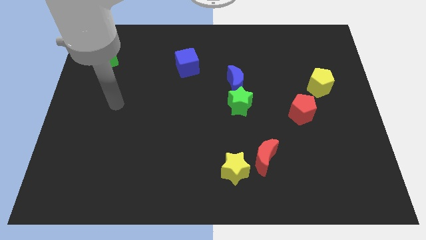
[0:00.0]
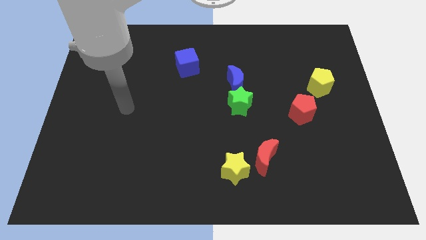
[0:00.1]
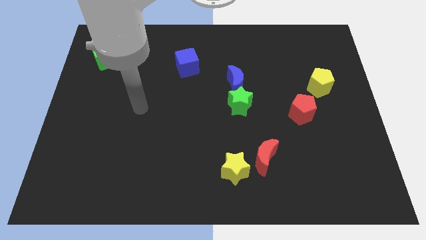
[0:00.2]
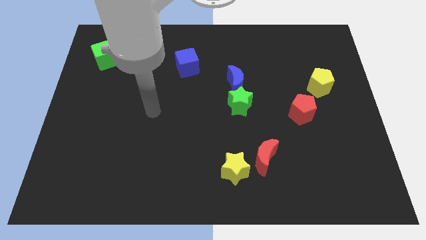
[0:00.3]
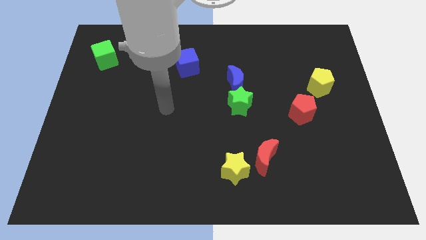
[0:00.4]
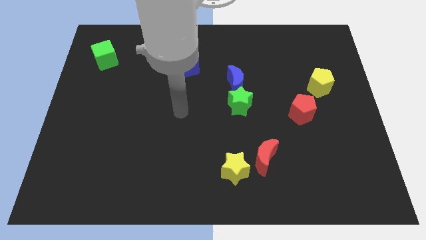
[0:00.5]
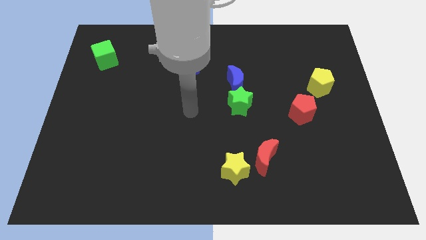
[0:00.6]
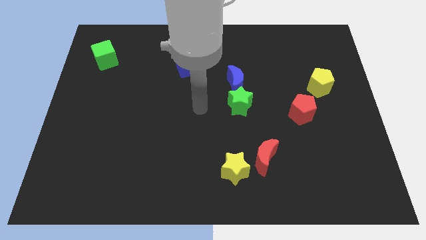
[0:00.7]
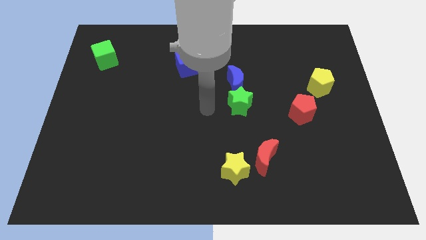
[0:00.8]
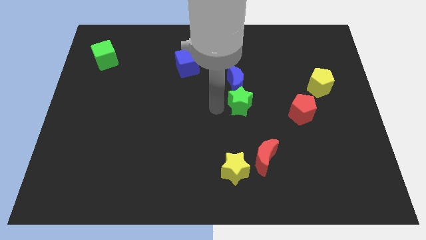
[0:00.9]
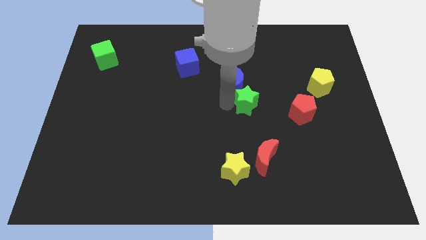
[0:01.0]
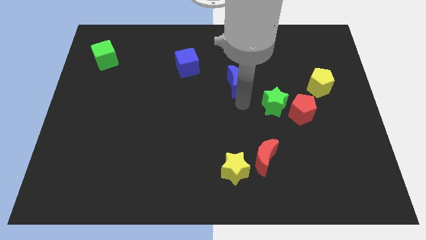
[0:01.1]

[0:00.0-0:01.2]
pull the blue moon apart from the green star

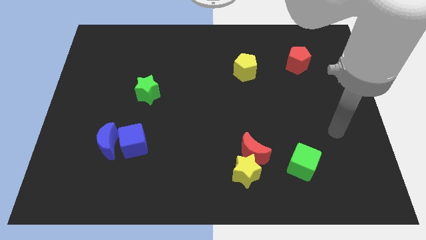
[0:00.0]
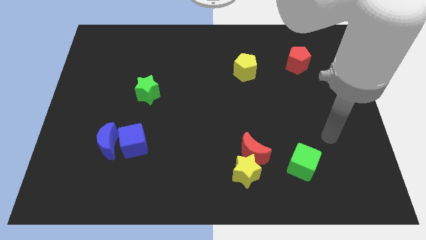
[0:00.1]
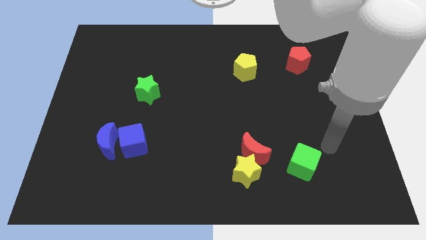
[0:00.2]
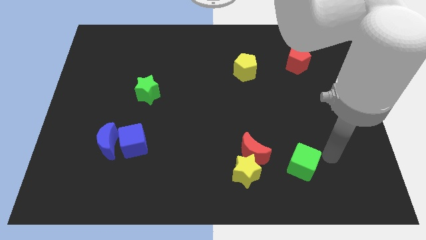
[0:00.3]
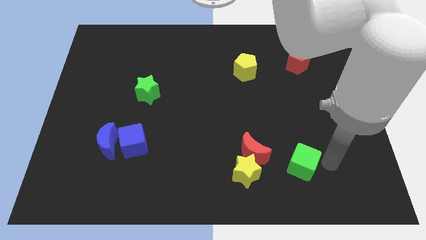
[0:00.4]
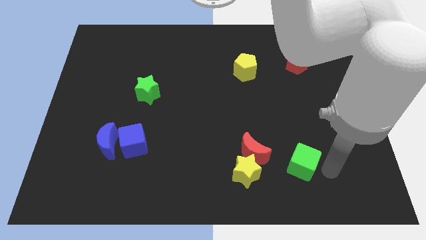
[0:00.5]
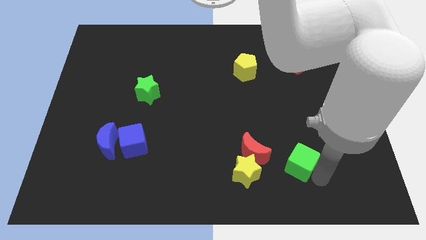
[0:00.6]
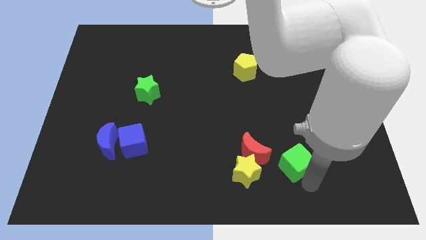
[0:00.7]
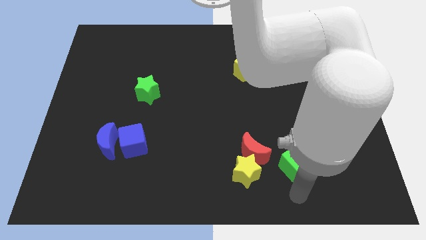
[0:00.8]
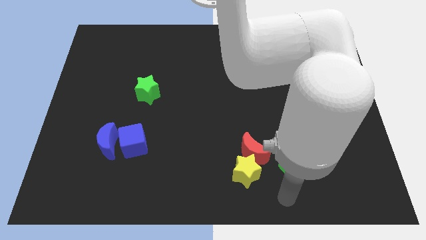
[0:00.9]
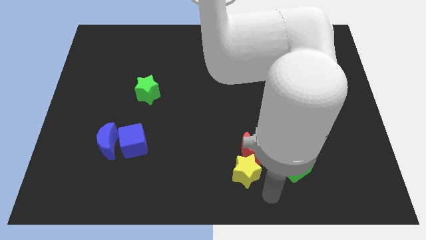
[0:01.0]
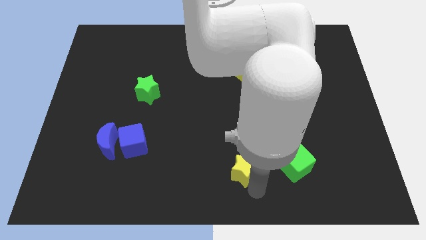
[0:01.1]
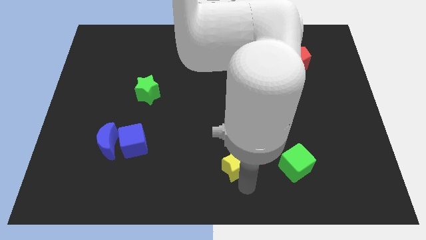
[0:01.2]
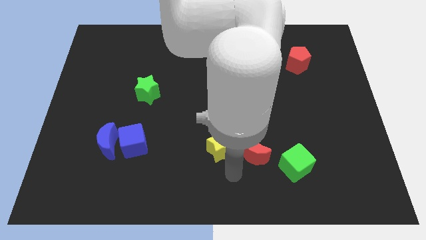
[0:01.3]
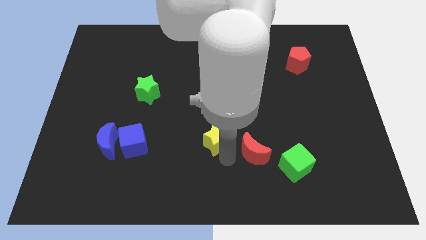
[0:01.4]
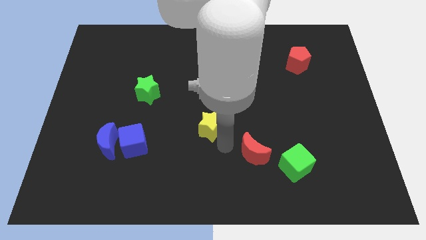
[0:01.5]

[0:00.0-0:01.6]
separate the red moon from the yellow star

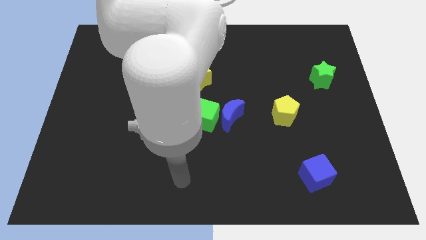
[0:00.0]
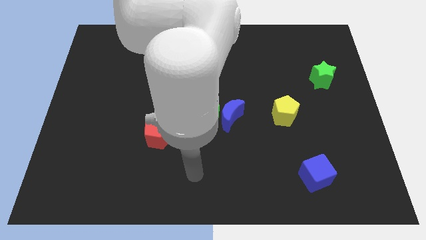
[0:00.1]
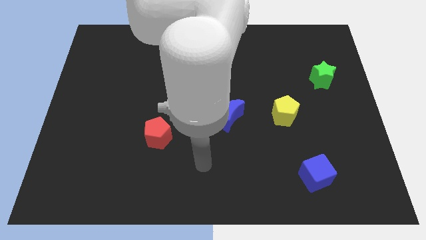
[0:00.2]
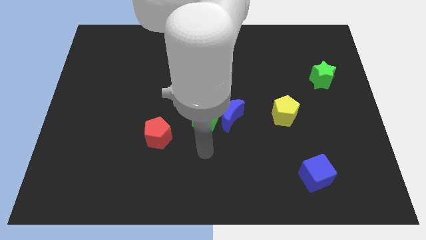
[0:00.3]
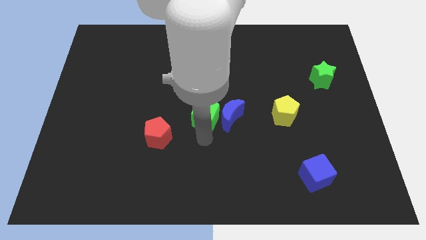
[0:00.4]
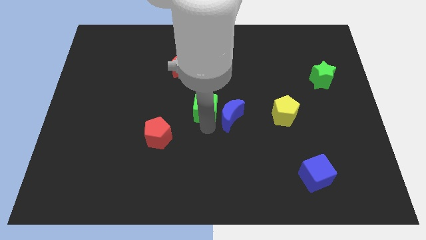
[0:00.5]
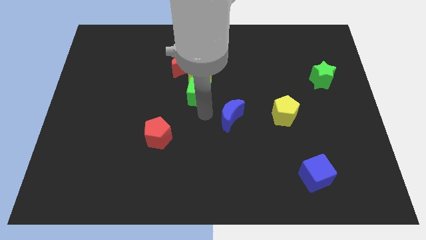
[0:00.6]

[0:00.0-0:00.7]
separate the blue moon from the green cube

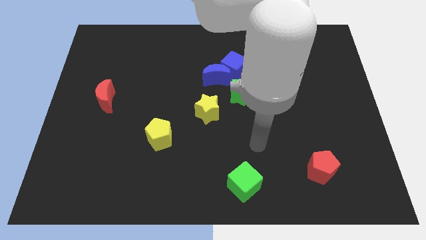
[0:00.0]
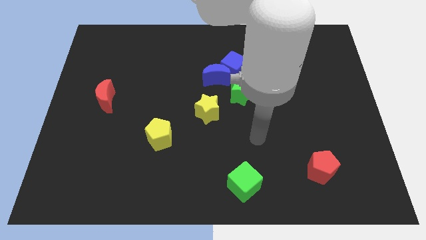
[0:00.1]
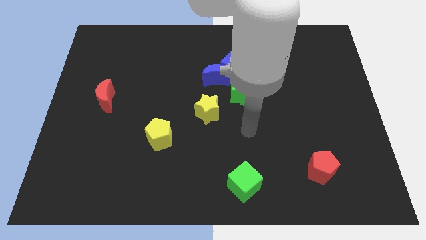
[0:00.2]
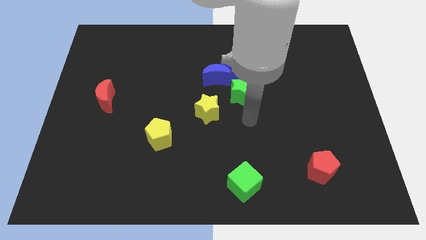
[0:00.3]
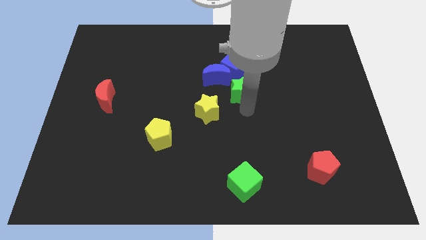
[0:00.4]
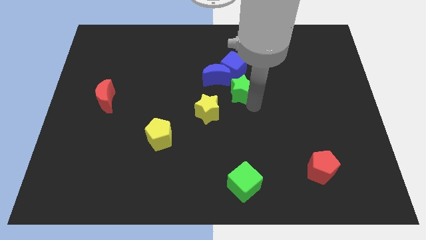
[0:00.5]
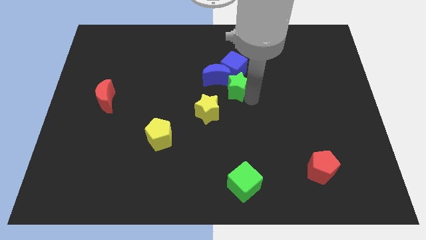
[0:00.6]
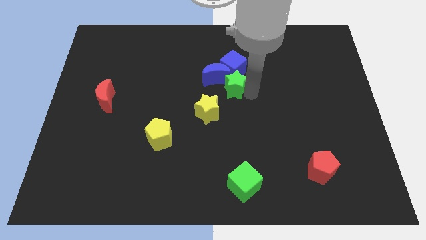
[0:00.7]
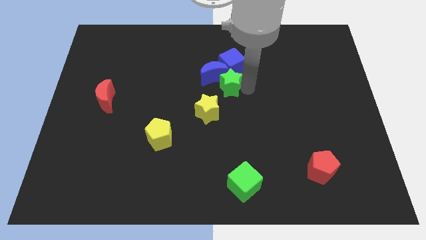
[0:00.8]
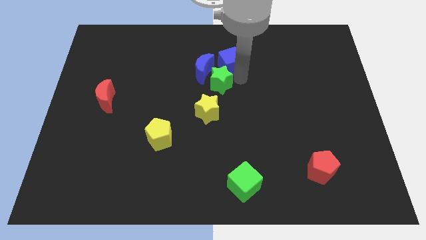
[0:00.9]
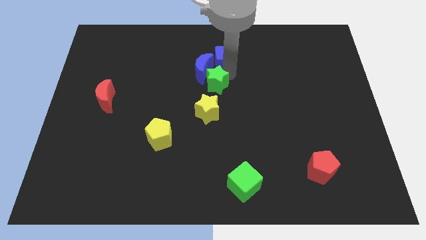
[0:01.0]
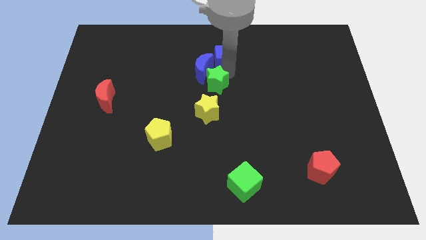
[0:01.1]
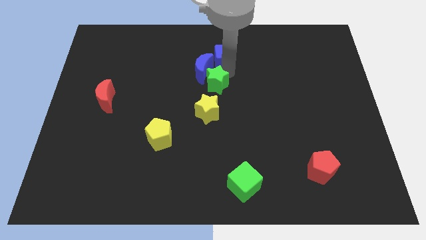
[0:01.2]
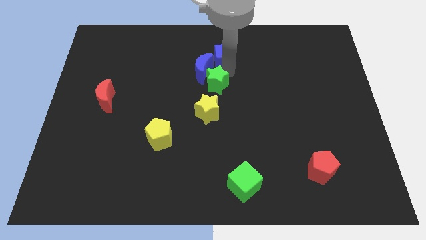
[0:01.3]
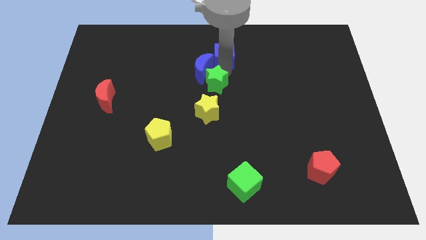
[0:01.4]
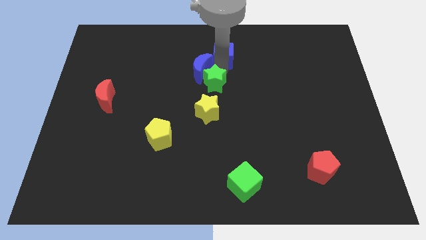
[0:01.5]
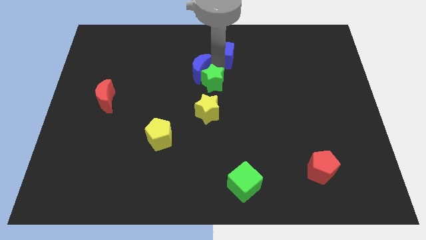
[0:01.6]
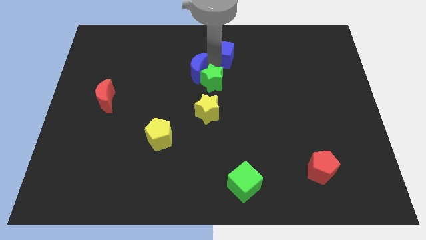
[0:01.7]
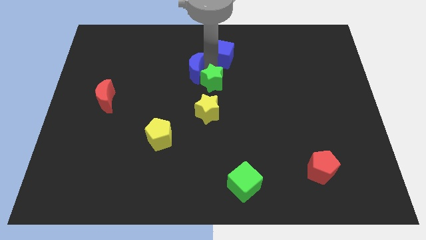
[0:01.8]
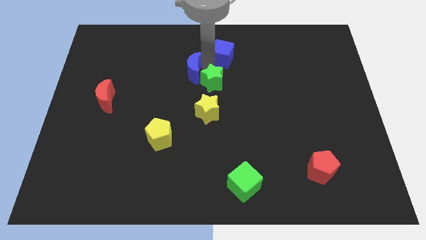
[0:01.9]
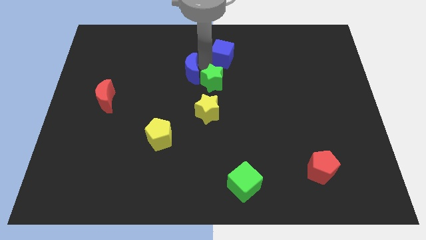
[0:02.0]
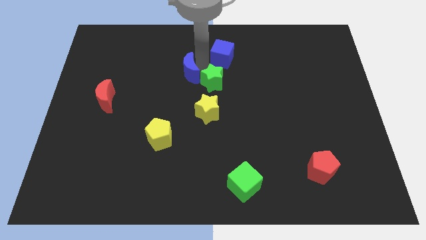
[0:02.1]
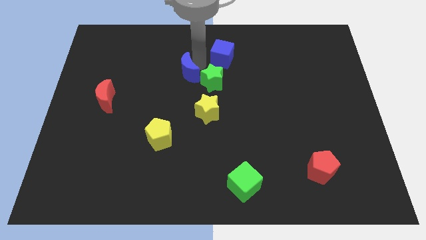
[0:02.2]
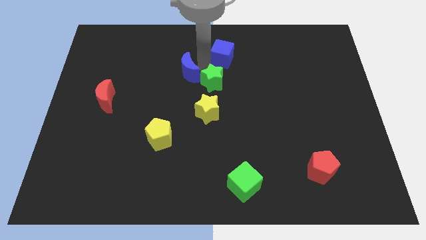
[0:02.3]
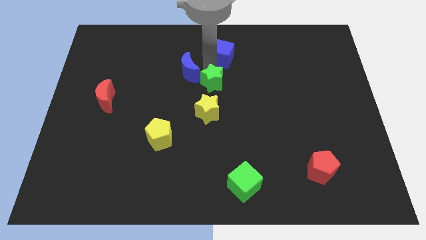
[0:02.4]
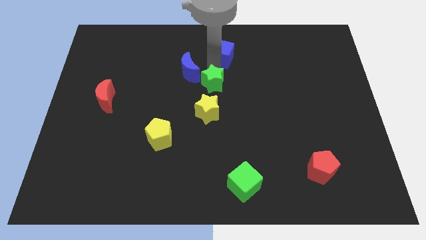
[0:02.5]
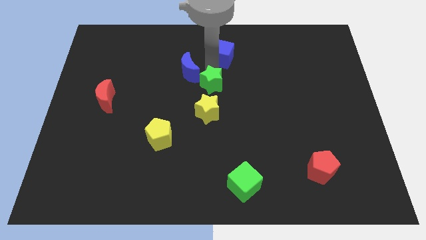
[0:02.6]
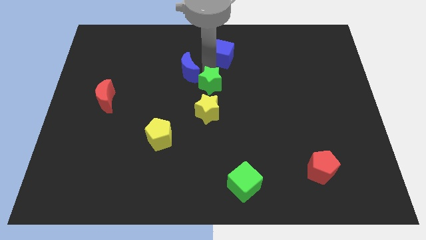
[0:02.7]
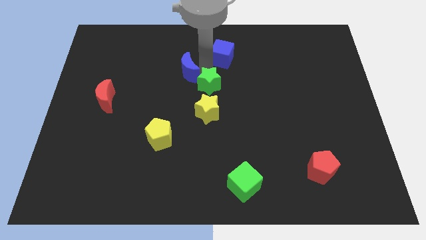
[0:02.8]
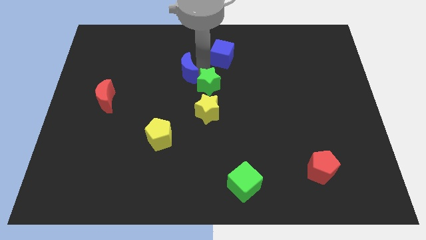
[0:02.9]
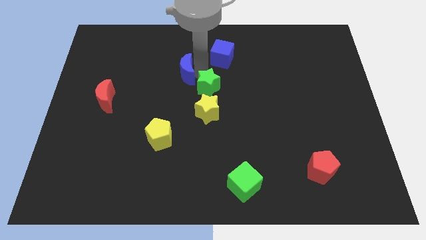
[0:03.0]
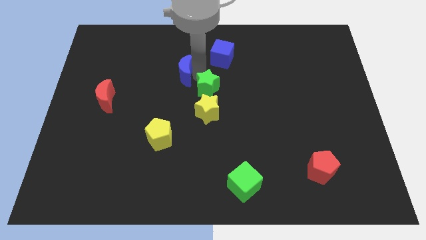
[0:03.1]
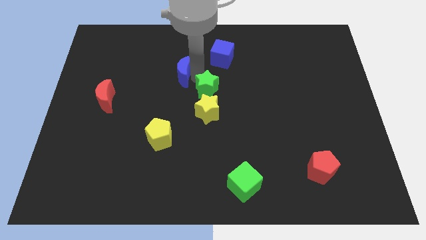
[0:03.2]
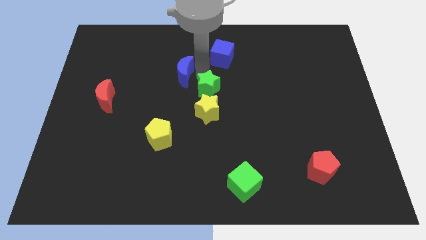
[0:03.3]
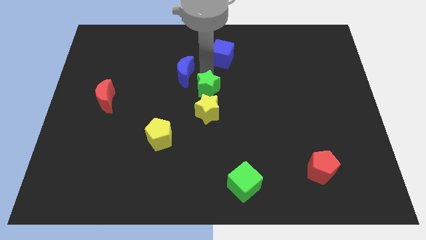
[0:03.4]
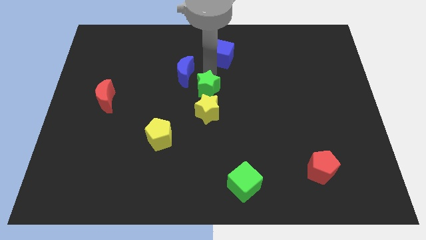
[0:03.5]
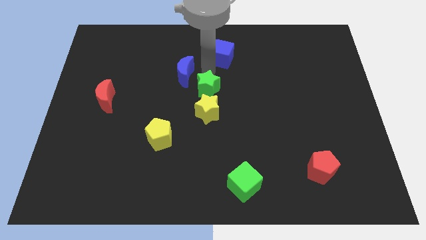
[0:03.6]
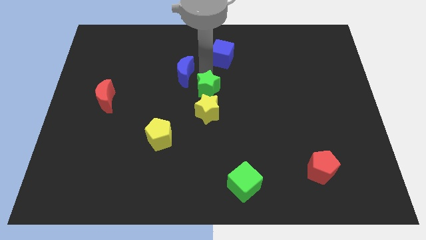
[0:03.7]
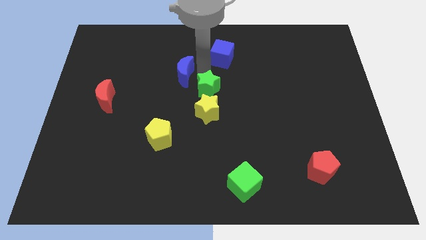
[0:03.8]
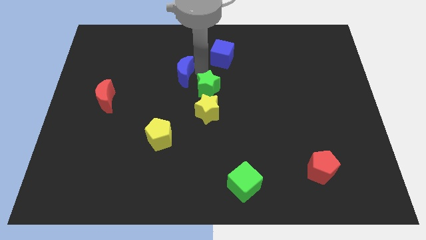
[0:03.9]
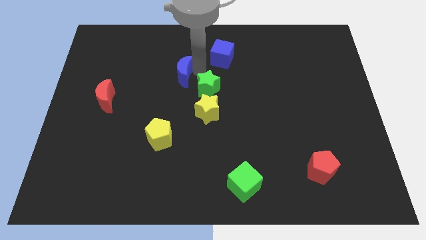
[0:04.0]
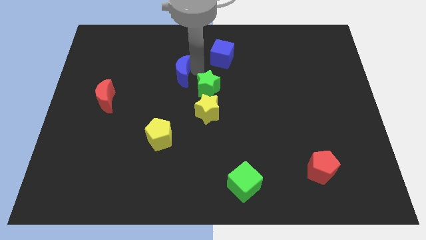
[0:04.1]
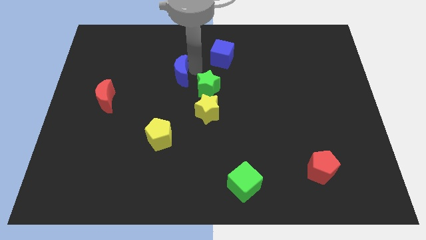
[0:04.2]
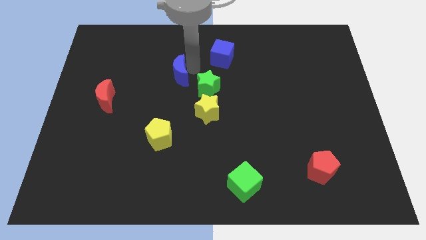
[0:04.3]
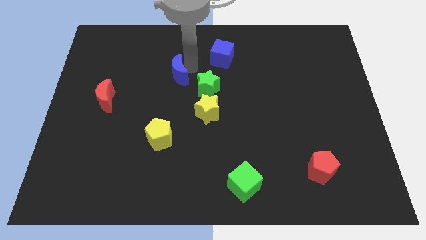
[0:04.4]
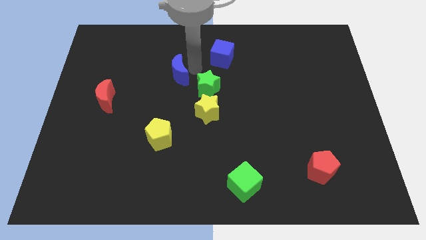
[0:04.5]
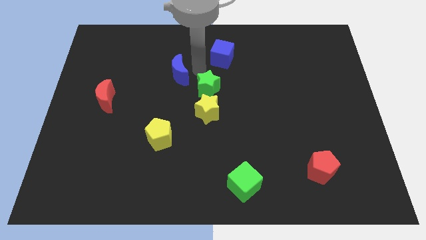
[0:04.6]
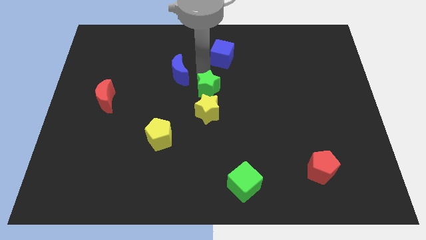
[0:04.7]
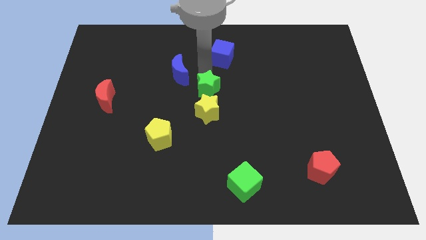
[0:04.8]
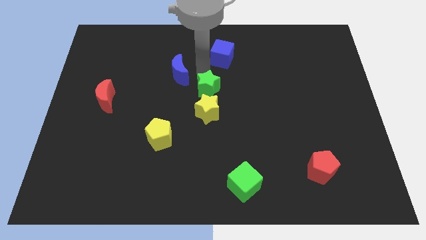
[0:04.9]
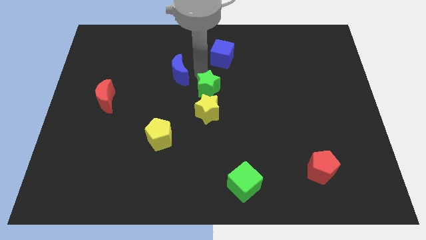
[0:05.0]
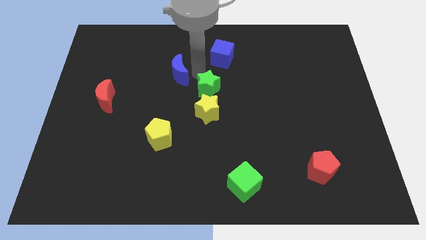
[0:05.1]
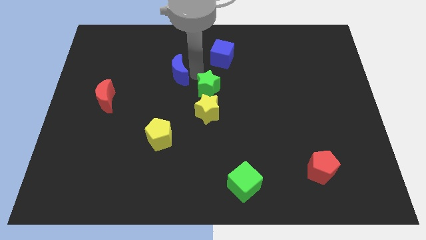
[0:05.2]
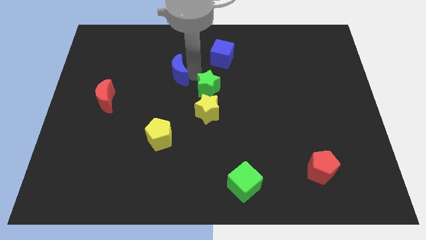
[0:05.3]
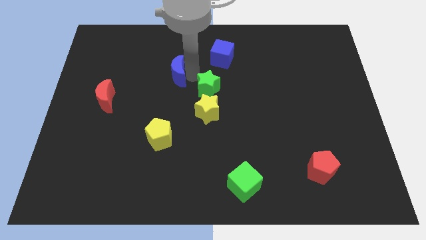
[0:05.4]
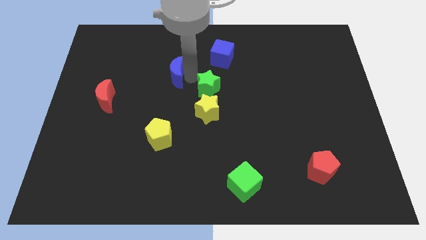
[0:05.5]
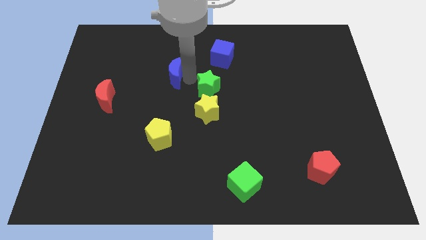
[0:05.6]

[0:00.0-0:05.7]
pull the blue moon apart from the blue cube and green star

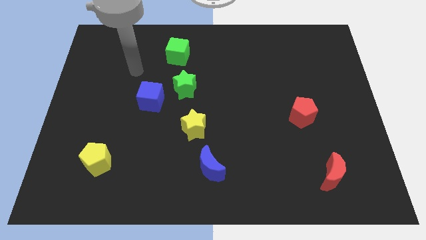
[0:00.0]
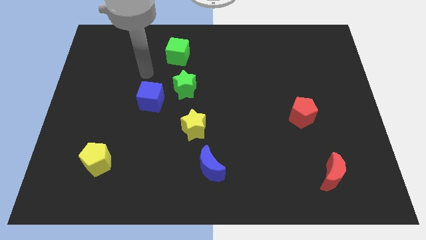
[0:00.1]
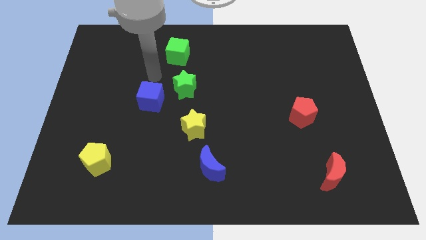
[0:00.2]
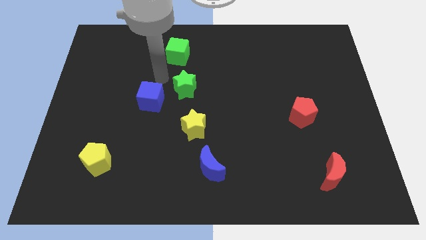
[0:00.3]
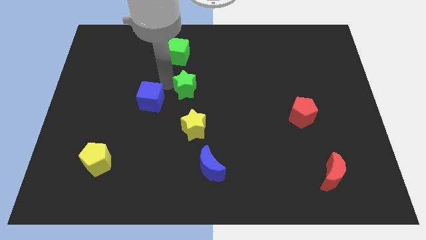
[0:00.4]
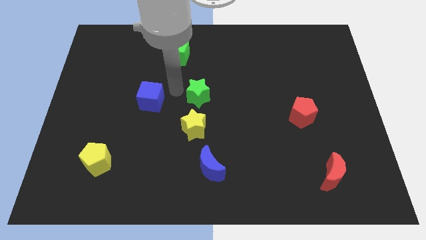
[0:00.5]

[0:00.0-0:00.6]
pull the blue cube apart from the green star
